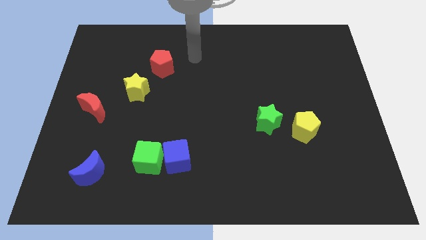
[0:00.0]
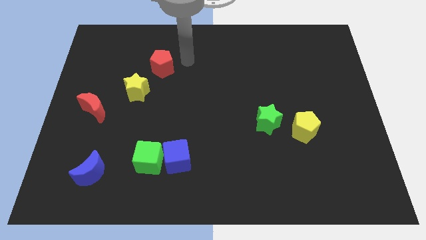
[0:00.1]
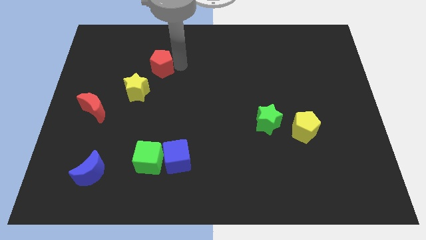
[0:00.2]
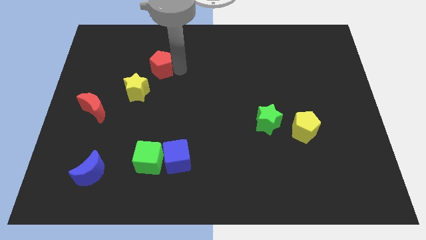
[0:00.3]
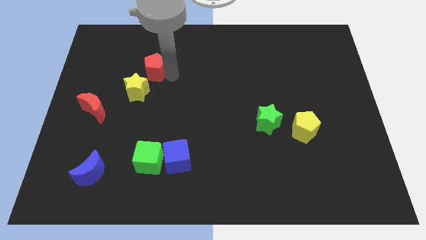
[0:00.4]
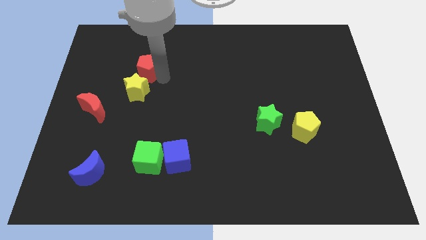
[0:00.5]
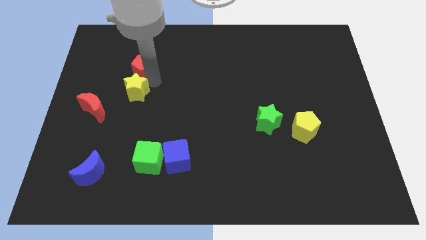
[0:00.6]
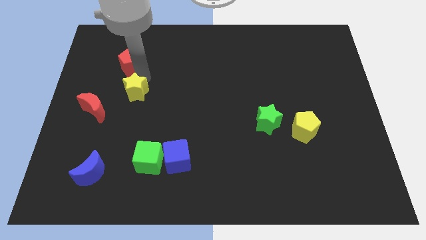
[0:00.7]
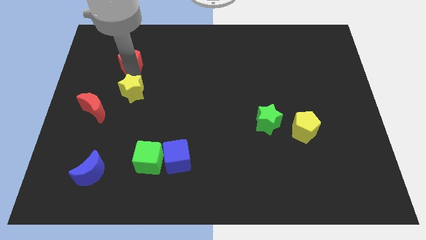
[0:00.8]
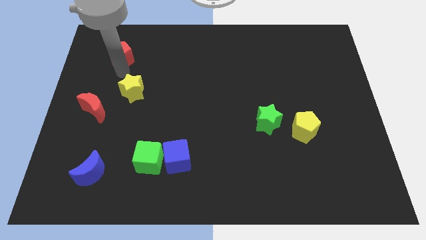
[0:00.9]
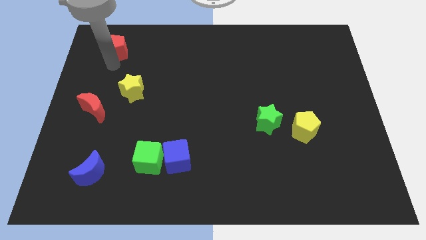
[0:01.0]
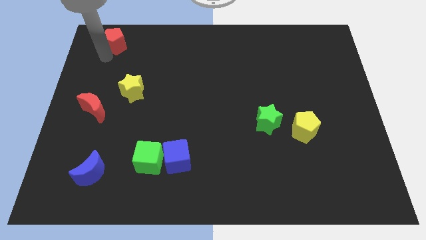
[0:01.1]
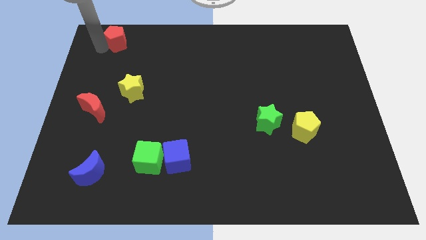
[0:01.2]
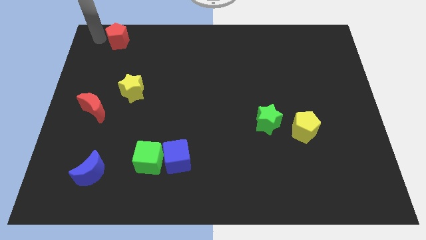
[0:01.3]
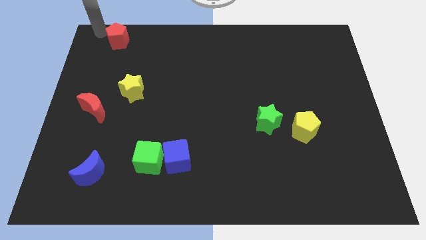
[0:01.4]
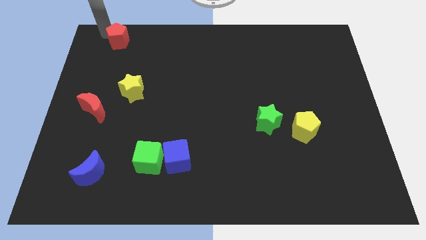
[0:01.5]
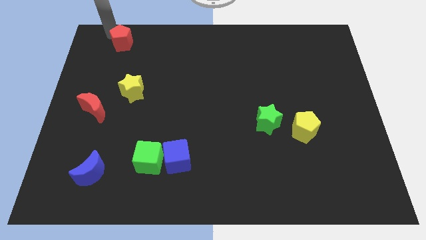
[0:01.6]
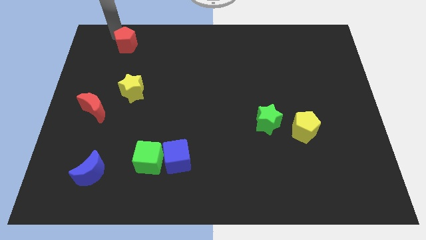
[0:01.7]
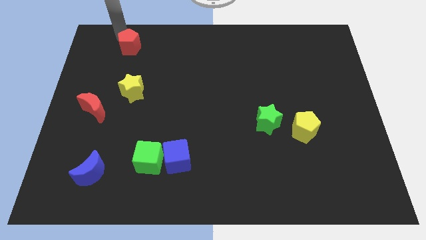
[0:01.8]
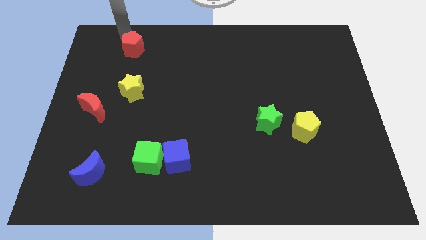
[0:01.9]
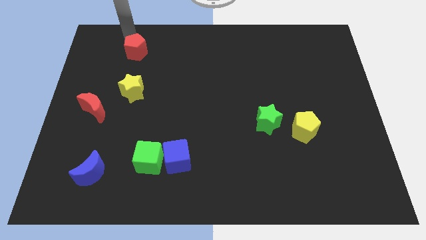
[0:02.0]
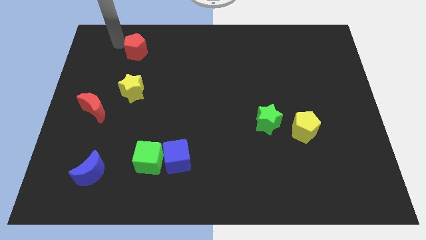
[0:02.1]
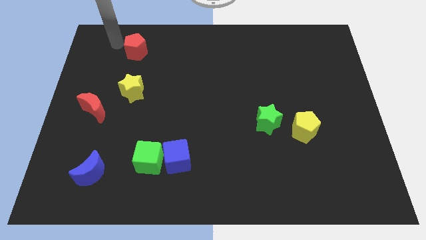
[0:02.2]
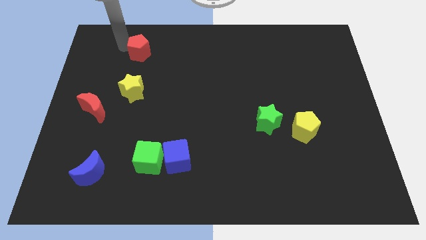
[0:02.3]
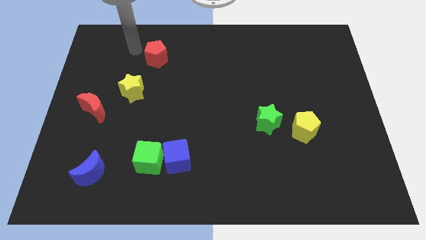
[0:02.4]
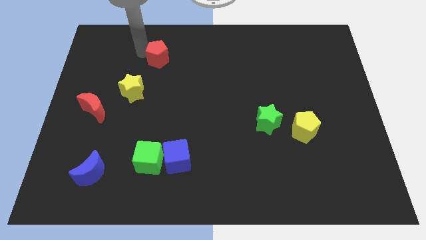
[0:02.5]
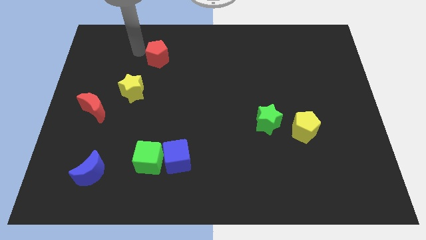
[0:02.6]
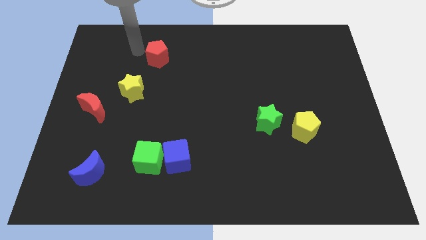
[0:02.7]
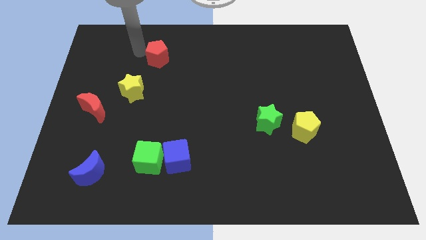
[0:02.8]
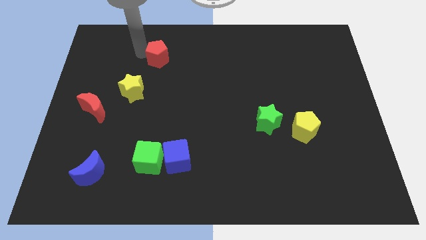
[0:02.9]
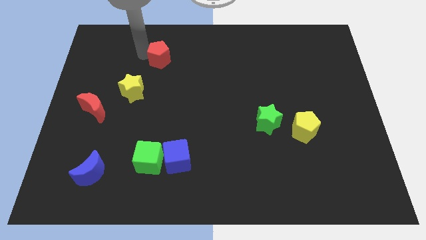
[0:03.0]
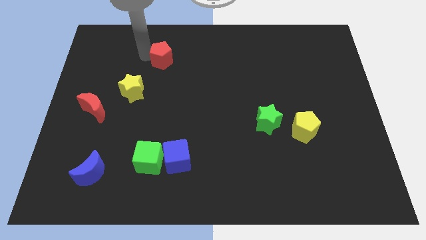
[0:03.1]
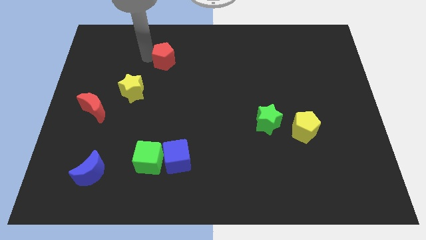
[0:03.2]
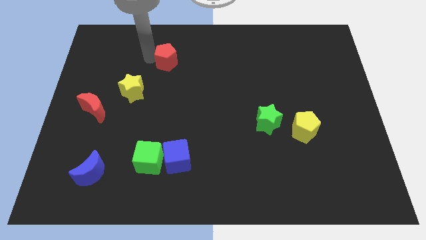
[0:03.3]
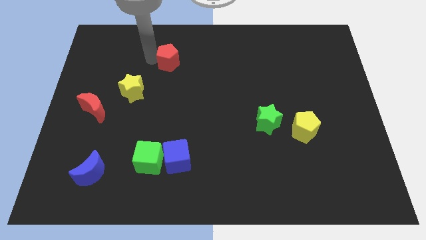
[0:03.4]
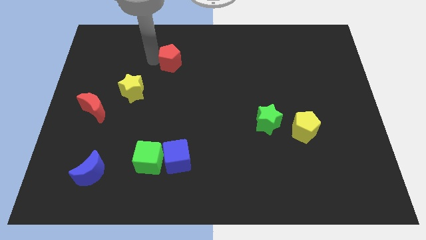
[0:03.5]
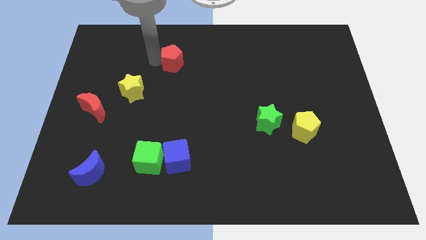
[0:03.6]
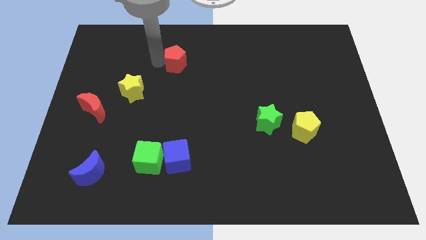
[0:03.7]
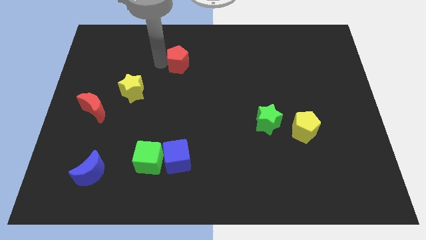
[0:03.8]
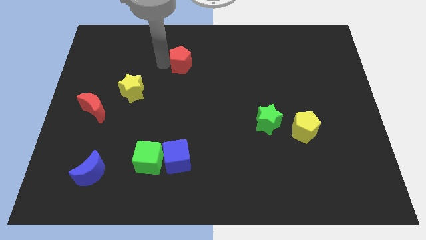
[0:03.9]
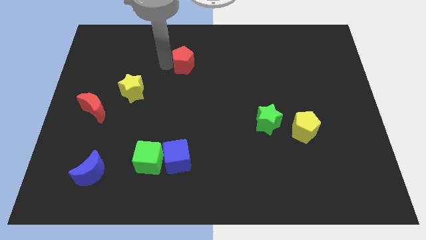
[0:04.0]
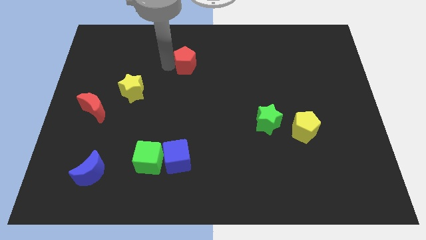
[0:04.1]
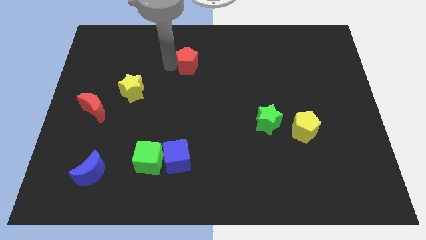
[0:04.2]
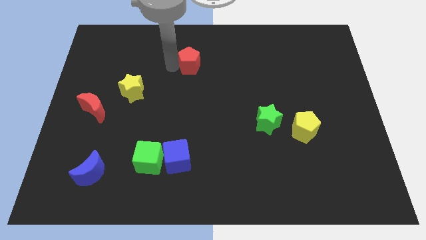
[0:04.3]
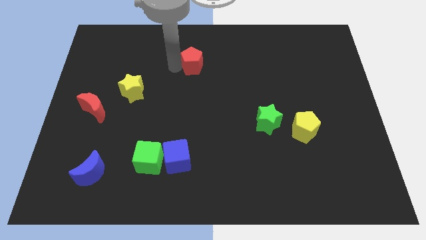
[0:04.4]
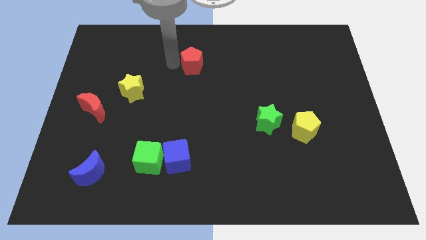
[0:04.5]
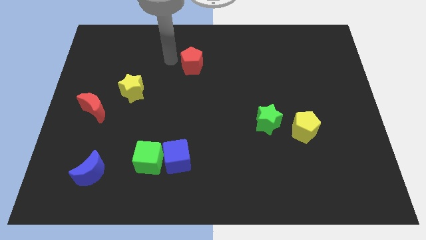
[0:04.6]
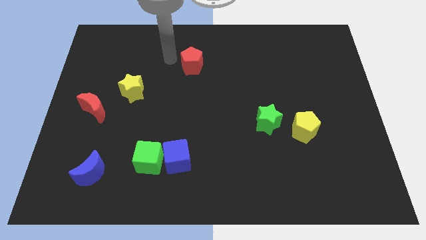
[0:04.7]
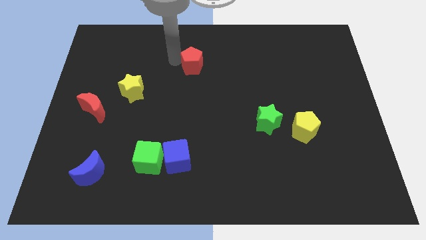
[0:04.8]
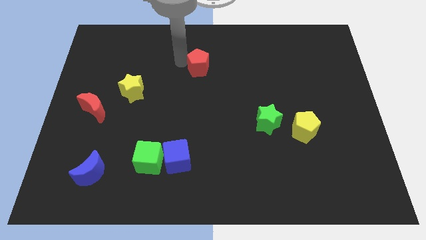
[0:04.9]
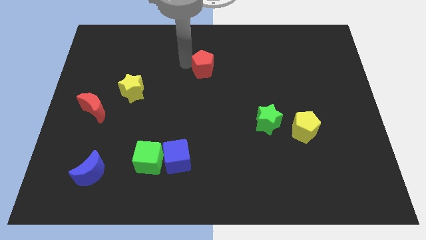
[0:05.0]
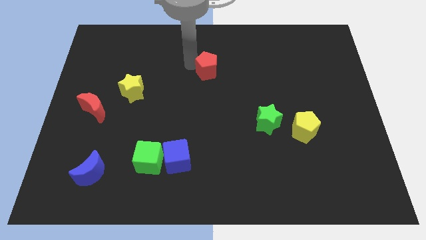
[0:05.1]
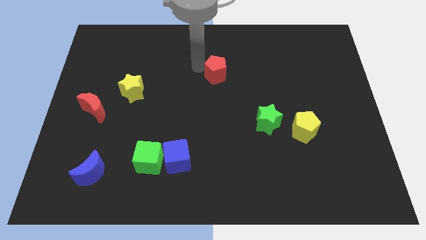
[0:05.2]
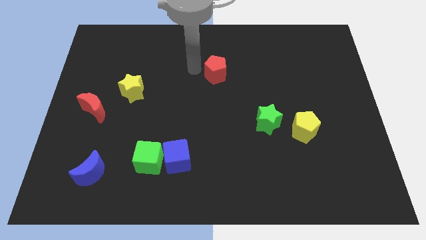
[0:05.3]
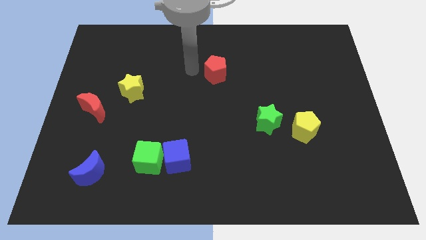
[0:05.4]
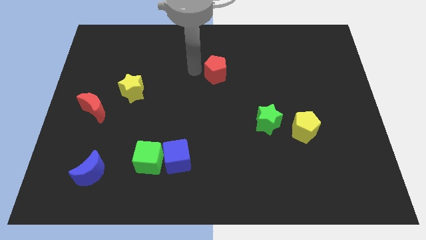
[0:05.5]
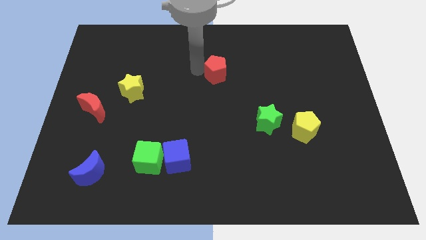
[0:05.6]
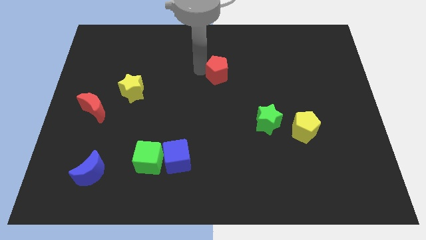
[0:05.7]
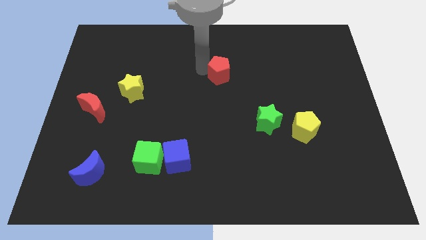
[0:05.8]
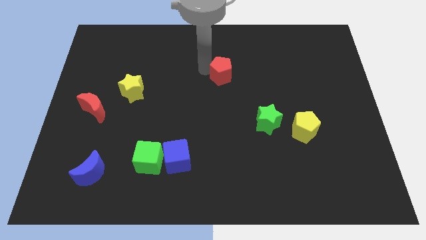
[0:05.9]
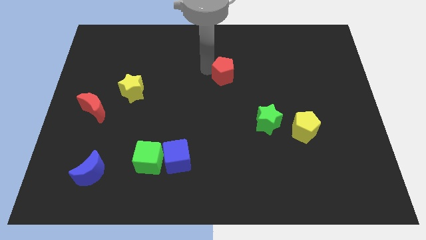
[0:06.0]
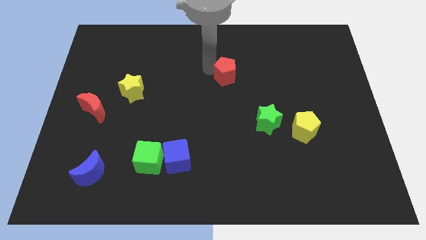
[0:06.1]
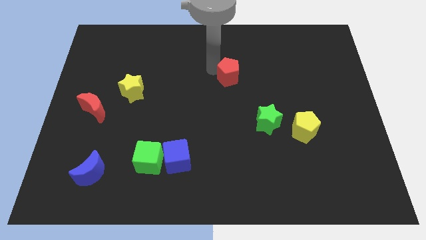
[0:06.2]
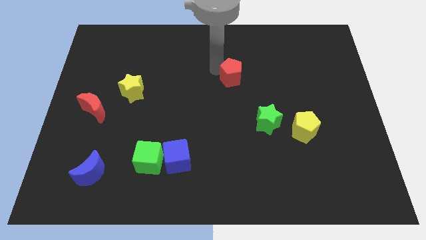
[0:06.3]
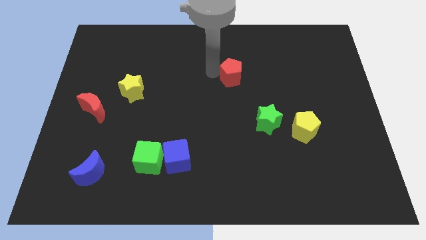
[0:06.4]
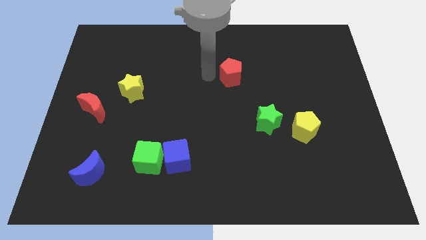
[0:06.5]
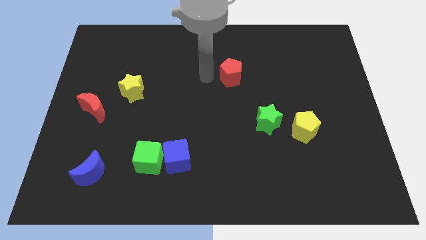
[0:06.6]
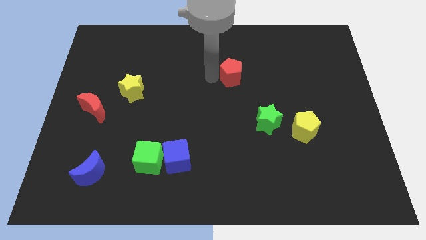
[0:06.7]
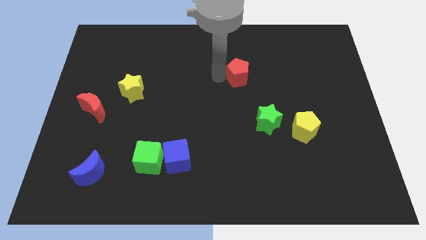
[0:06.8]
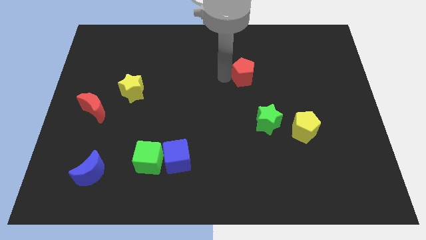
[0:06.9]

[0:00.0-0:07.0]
push the red pentagon right

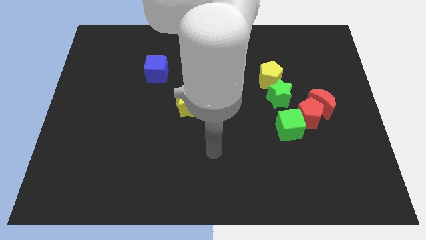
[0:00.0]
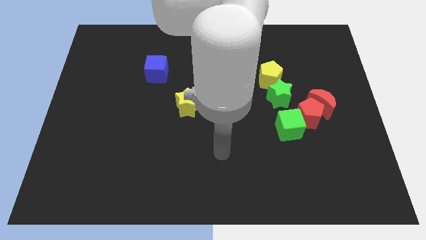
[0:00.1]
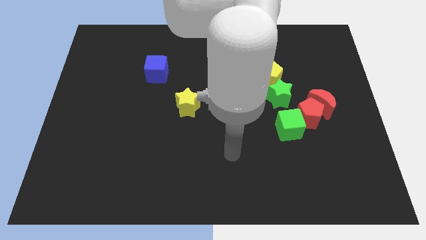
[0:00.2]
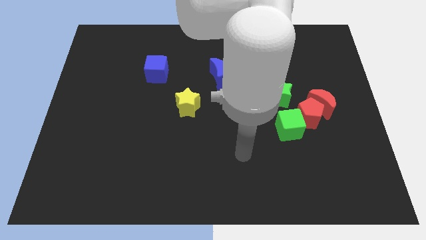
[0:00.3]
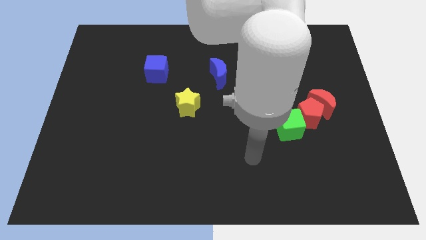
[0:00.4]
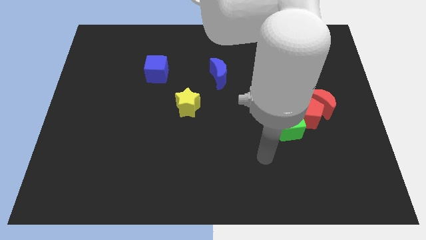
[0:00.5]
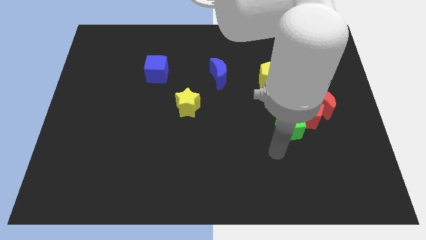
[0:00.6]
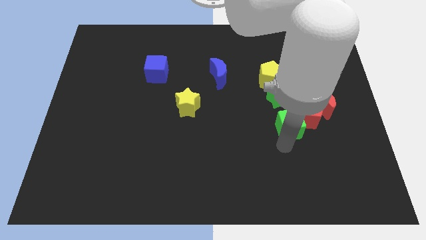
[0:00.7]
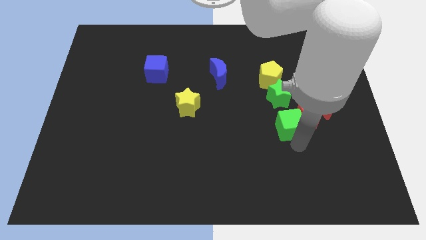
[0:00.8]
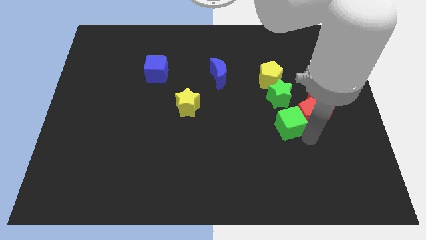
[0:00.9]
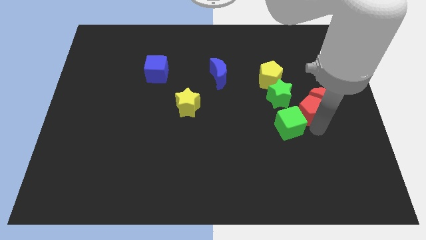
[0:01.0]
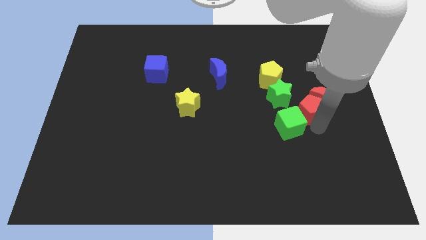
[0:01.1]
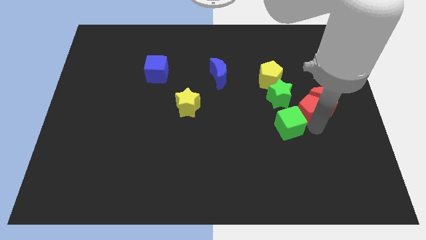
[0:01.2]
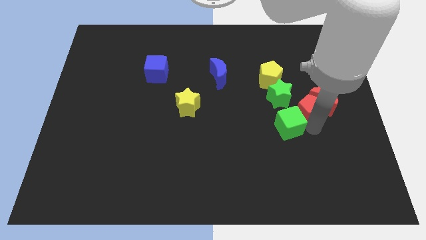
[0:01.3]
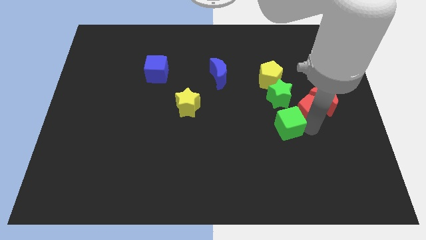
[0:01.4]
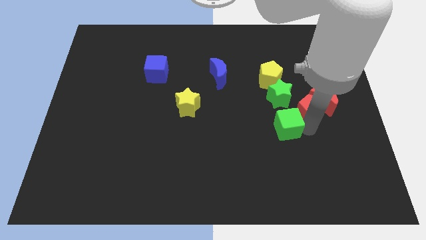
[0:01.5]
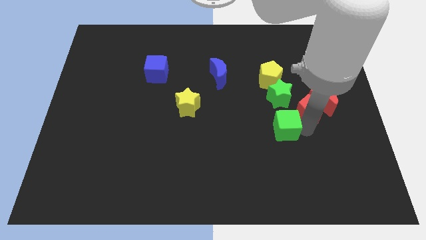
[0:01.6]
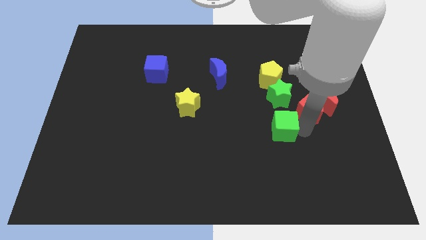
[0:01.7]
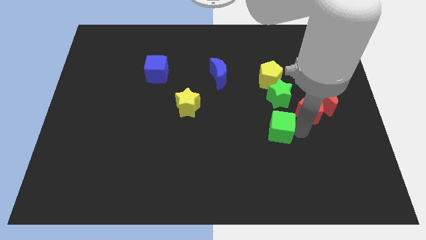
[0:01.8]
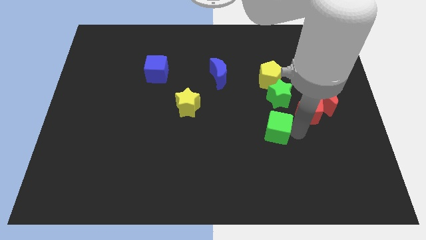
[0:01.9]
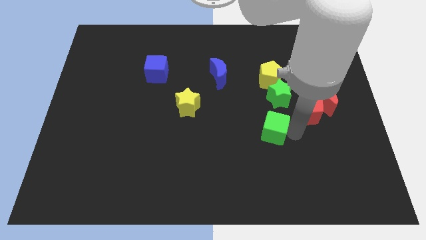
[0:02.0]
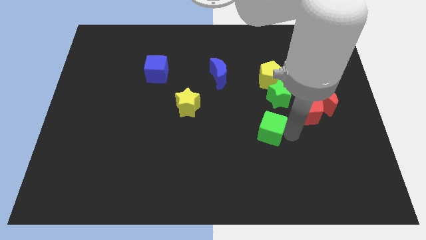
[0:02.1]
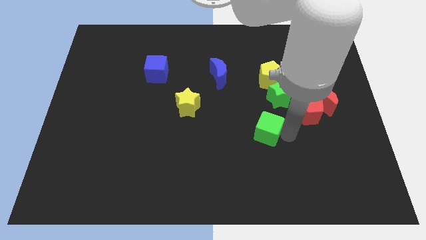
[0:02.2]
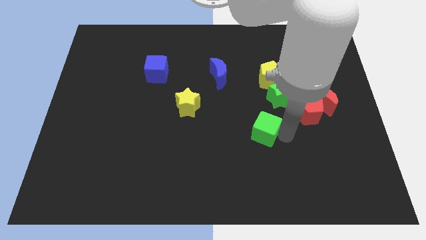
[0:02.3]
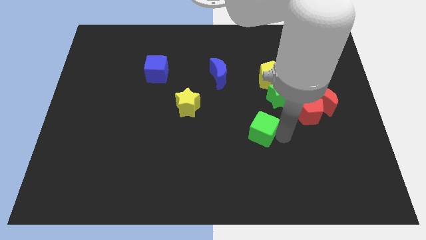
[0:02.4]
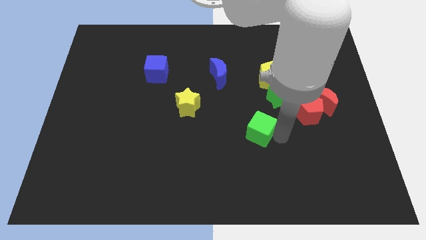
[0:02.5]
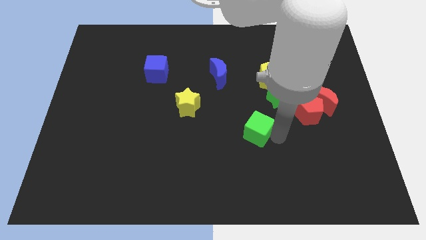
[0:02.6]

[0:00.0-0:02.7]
slightly slide the green cube left
